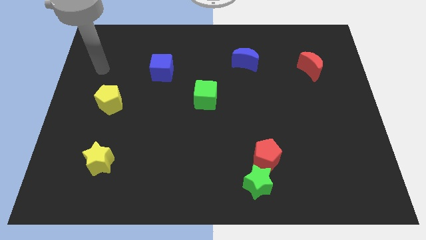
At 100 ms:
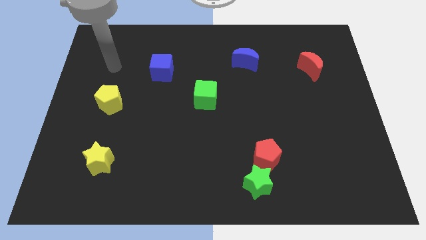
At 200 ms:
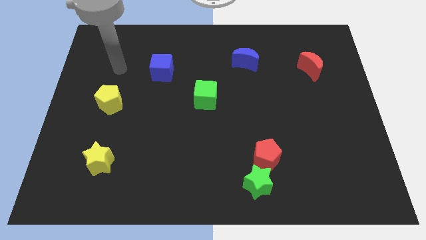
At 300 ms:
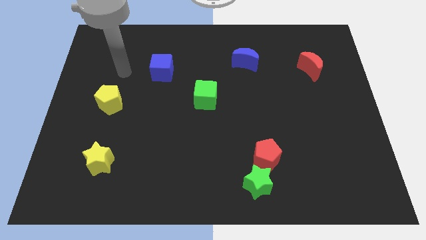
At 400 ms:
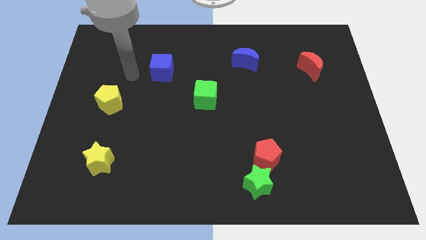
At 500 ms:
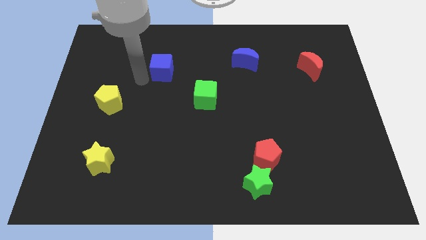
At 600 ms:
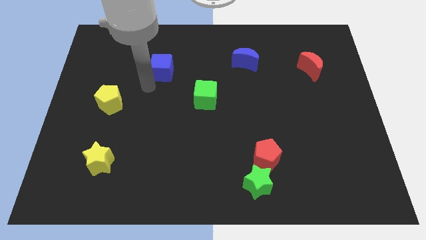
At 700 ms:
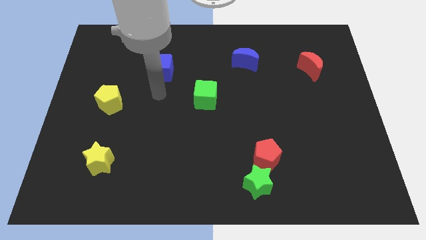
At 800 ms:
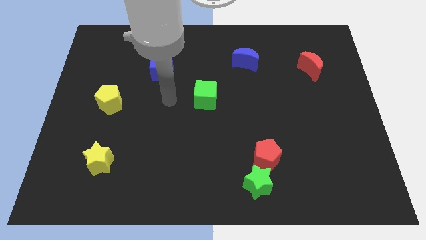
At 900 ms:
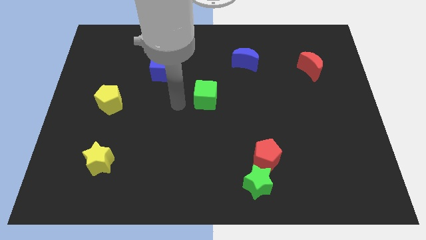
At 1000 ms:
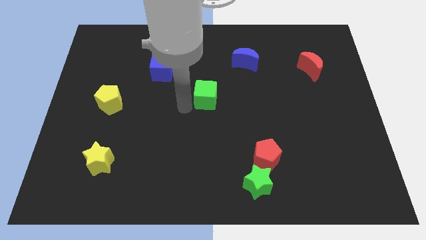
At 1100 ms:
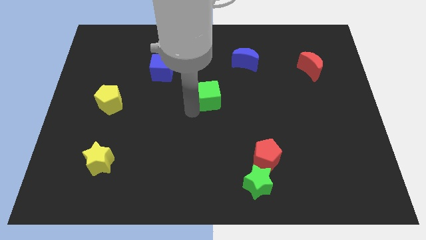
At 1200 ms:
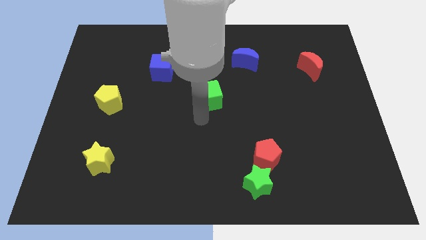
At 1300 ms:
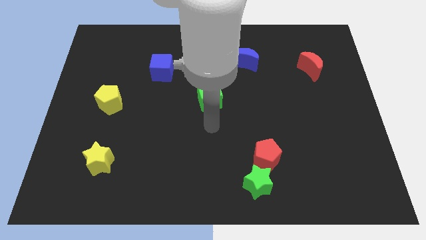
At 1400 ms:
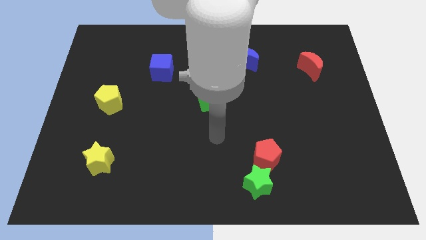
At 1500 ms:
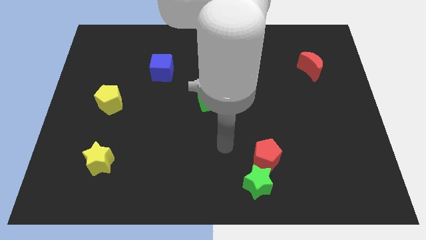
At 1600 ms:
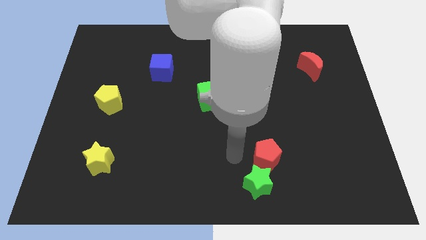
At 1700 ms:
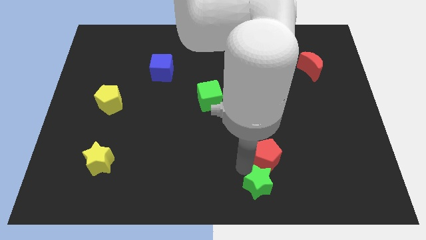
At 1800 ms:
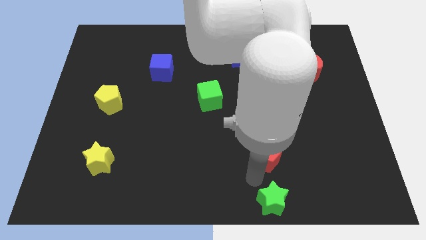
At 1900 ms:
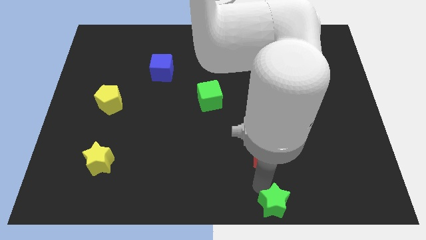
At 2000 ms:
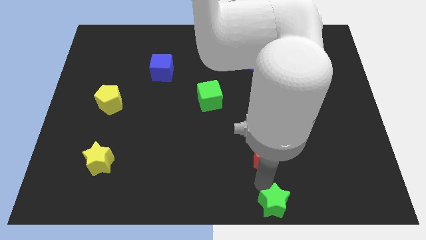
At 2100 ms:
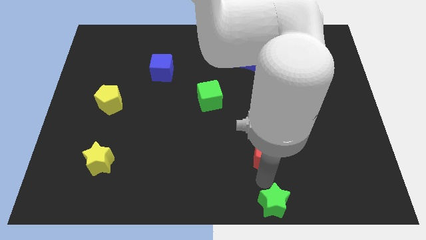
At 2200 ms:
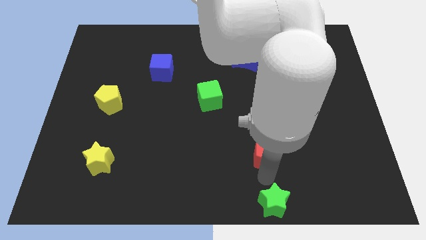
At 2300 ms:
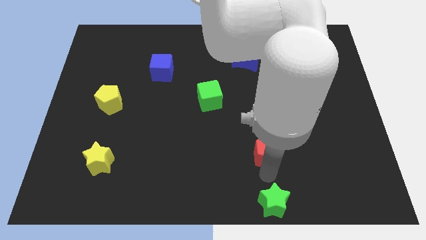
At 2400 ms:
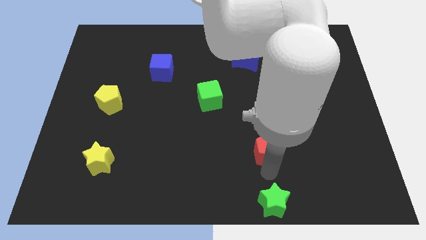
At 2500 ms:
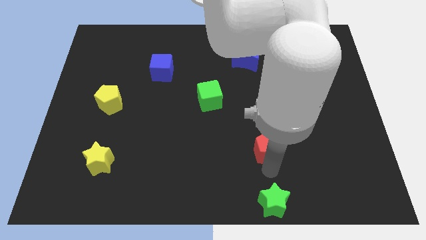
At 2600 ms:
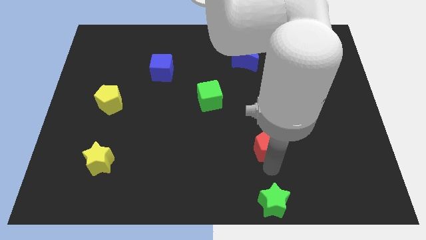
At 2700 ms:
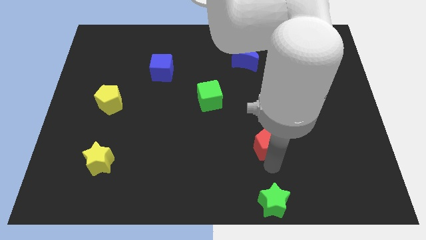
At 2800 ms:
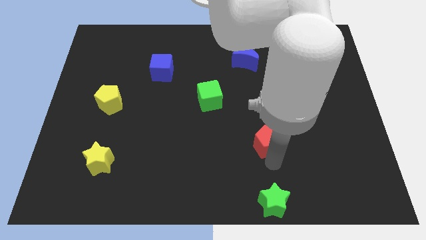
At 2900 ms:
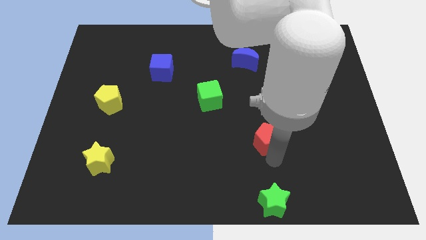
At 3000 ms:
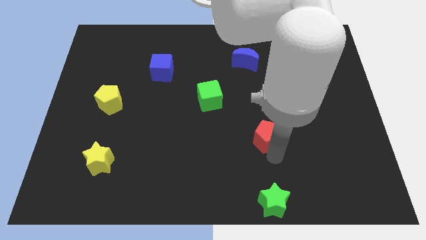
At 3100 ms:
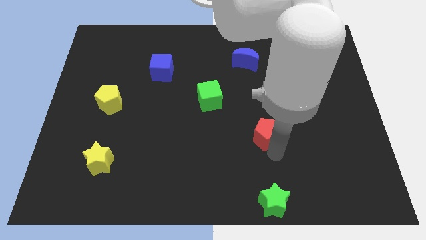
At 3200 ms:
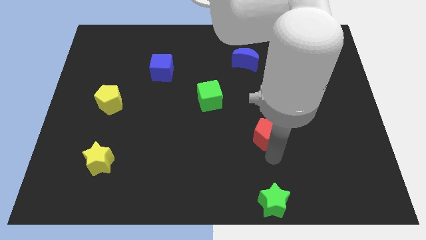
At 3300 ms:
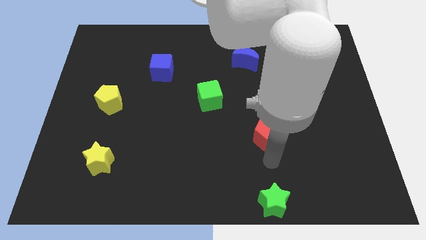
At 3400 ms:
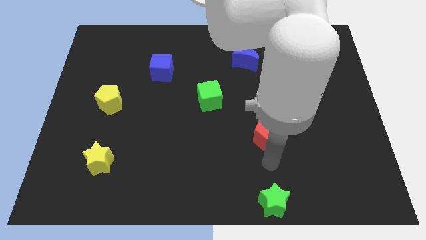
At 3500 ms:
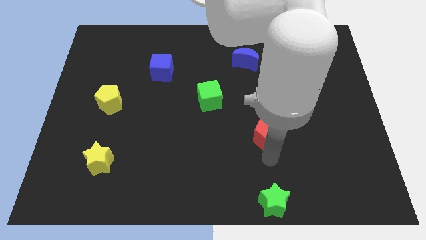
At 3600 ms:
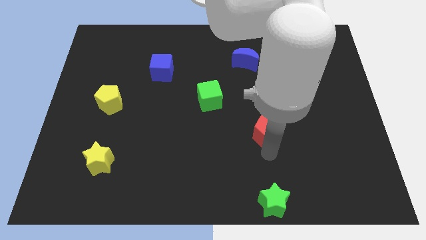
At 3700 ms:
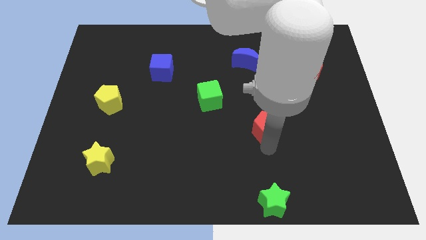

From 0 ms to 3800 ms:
push the red pentagon a little up

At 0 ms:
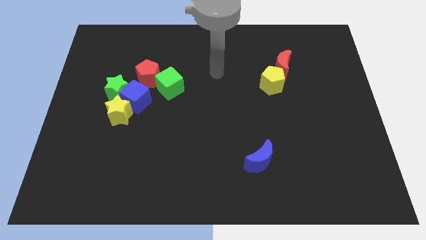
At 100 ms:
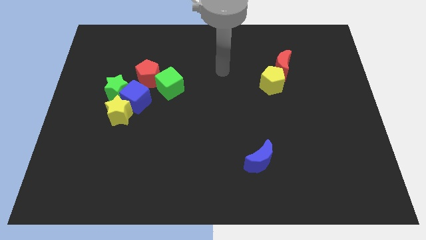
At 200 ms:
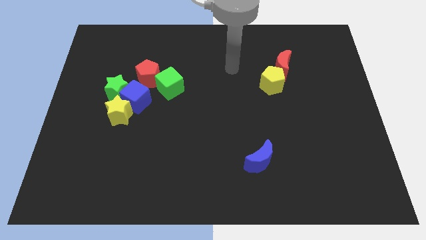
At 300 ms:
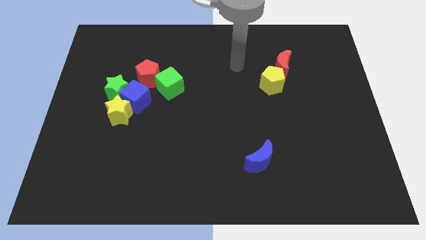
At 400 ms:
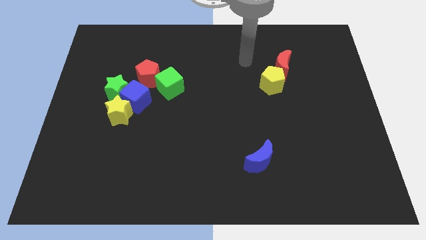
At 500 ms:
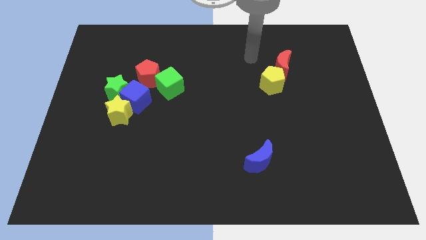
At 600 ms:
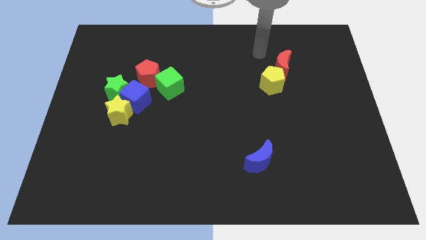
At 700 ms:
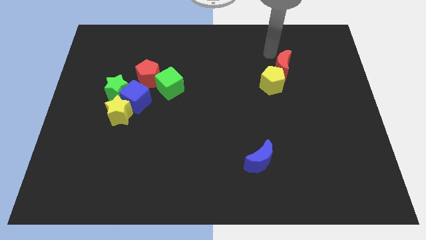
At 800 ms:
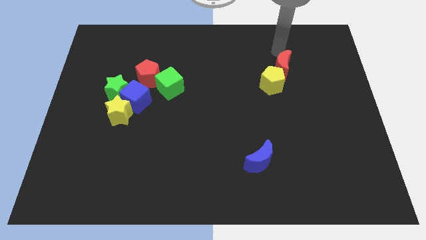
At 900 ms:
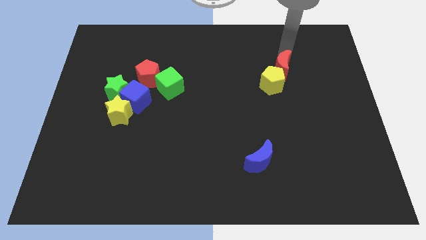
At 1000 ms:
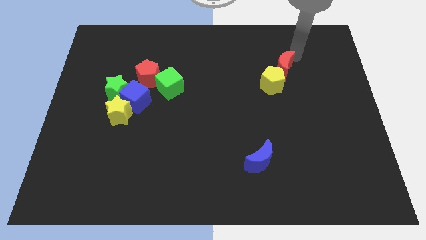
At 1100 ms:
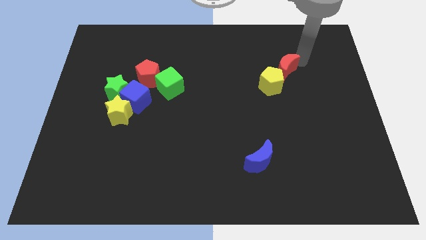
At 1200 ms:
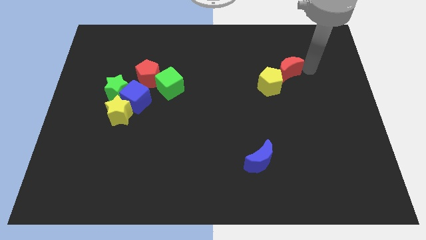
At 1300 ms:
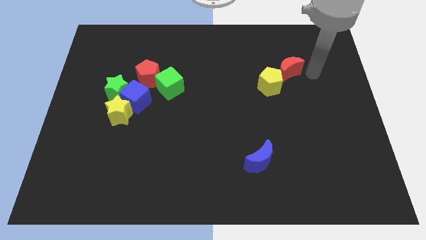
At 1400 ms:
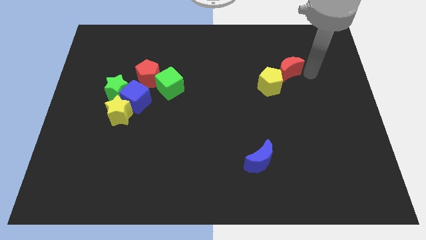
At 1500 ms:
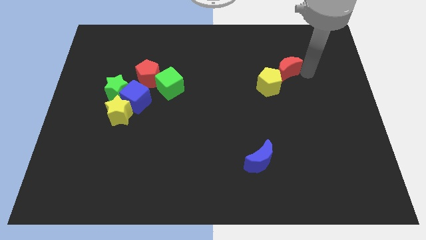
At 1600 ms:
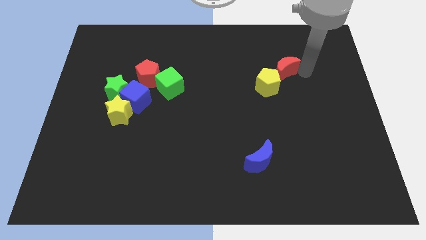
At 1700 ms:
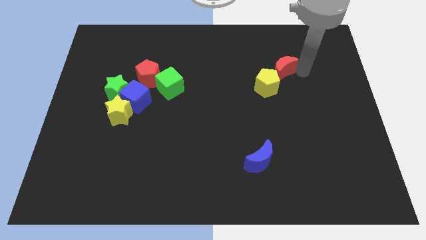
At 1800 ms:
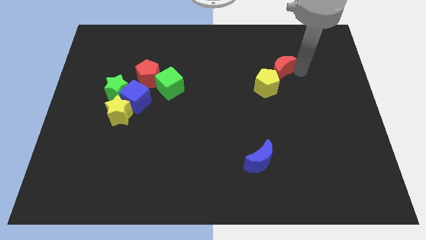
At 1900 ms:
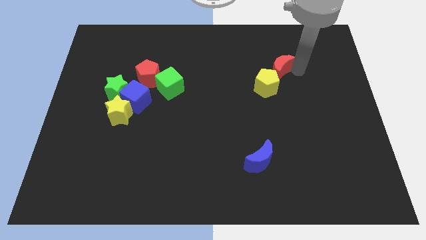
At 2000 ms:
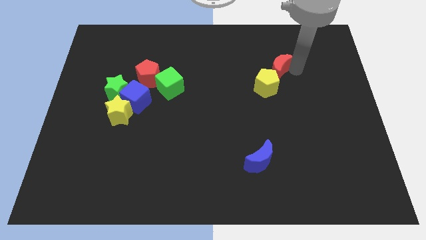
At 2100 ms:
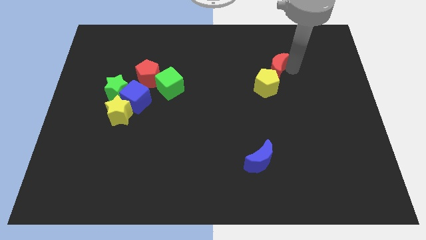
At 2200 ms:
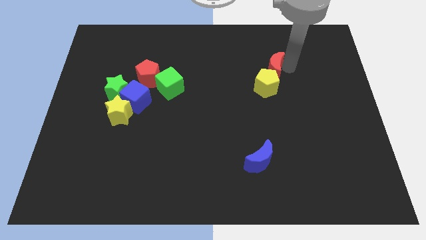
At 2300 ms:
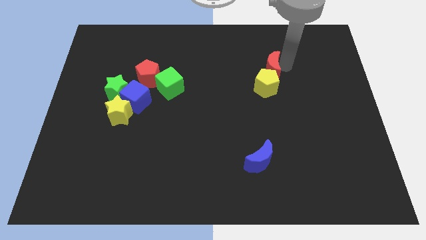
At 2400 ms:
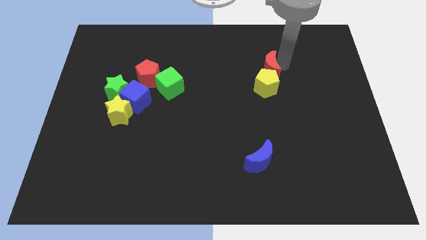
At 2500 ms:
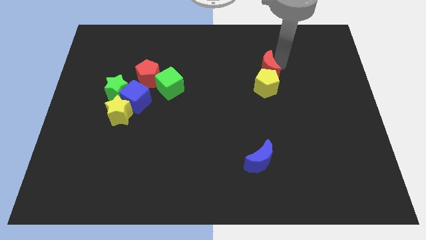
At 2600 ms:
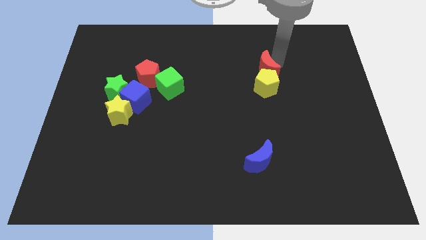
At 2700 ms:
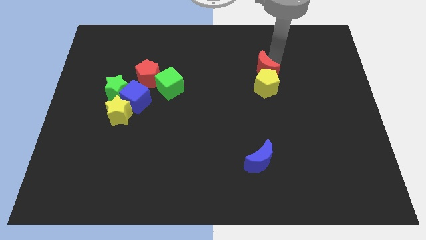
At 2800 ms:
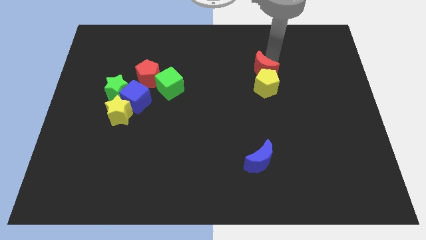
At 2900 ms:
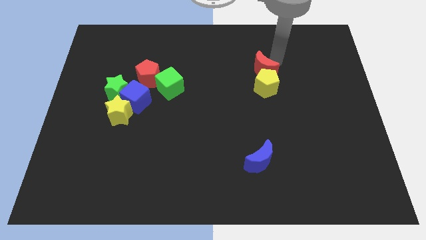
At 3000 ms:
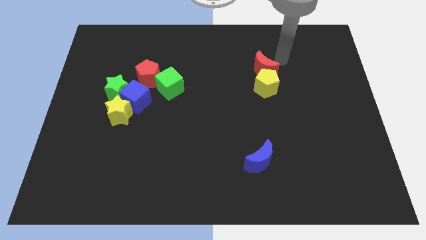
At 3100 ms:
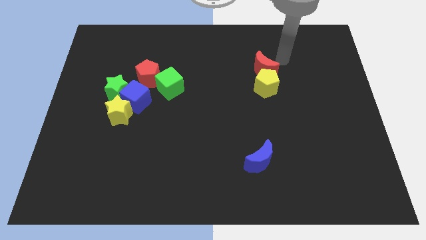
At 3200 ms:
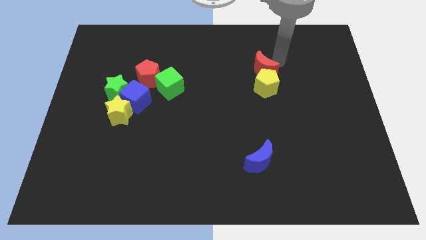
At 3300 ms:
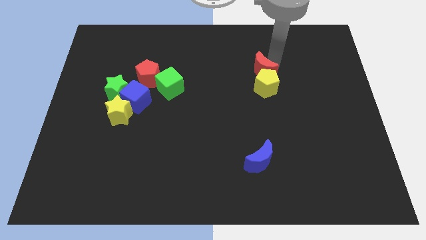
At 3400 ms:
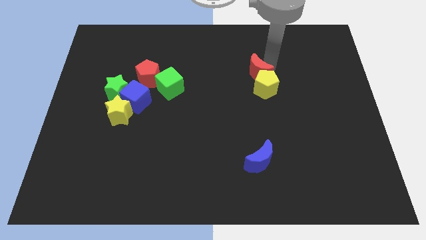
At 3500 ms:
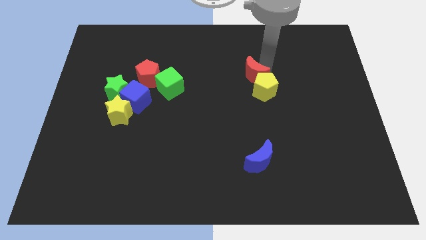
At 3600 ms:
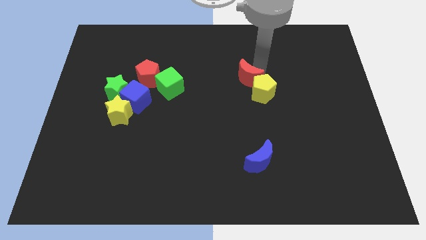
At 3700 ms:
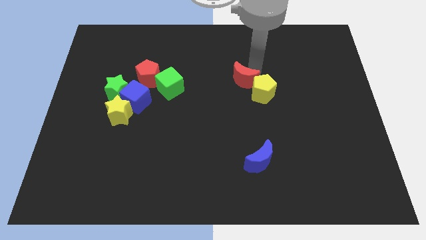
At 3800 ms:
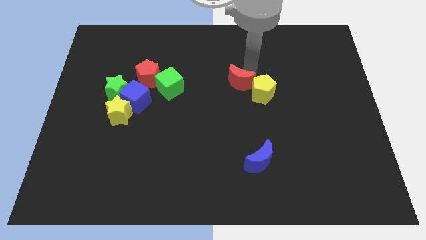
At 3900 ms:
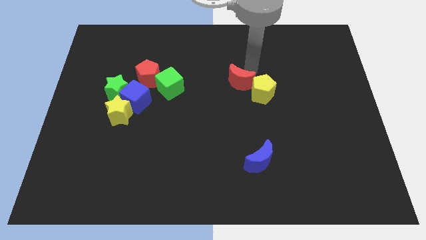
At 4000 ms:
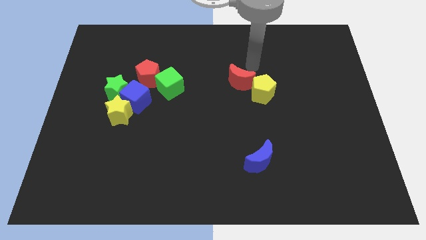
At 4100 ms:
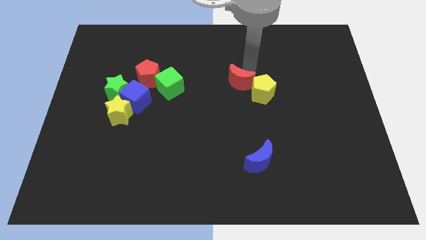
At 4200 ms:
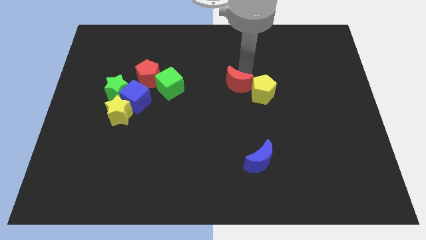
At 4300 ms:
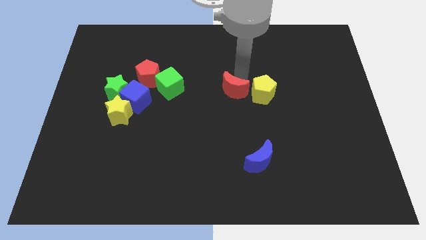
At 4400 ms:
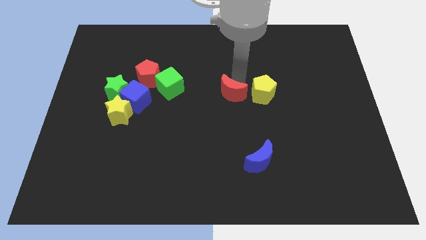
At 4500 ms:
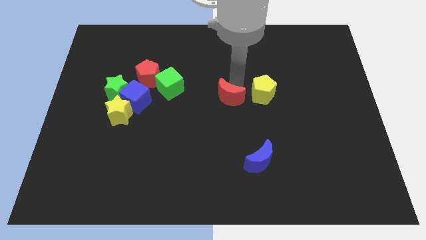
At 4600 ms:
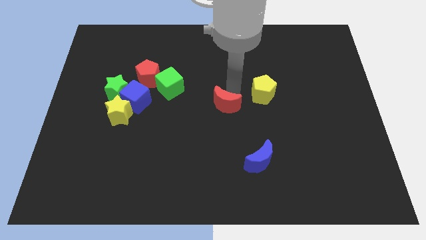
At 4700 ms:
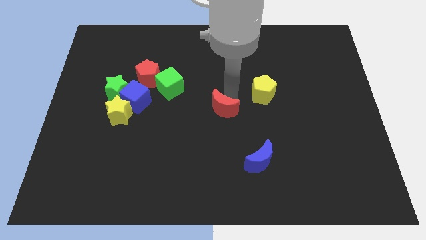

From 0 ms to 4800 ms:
move the red moon down and to the left diagonally
